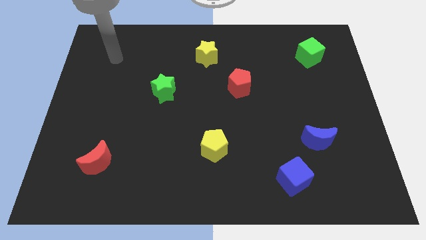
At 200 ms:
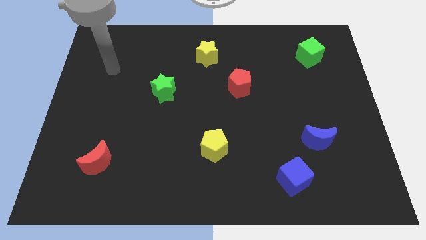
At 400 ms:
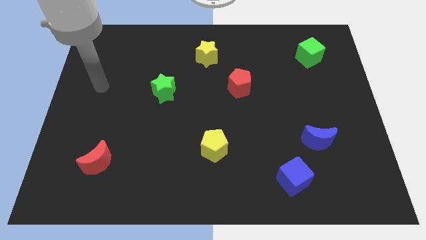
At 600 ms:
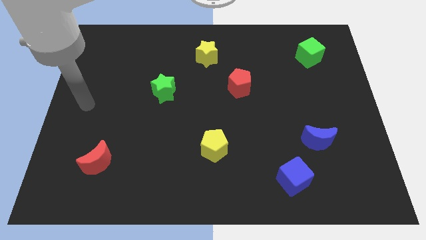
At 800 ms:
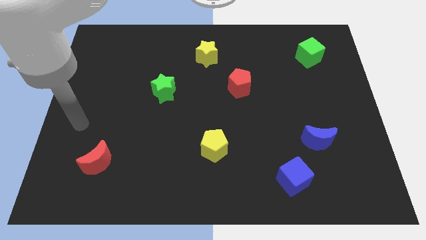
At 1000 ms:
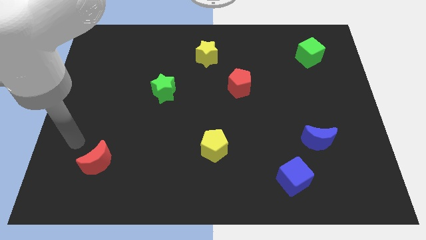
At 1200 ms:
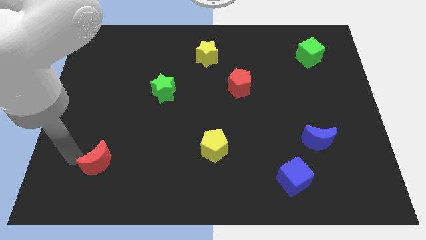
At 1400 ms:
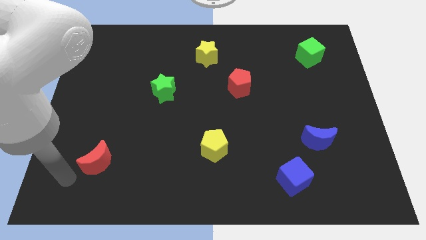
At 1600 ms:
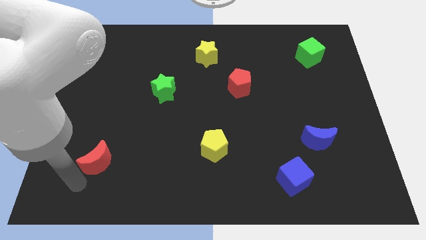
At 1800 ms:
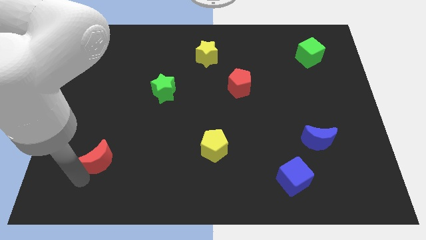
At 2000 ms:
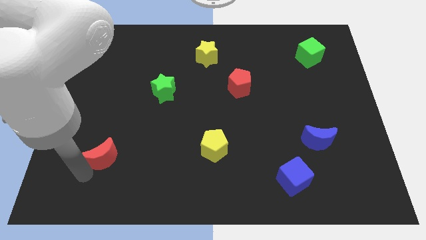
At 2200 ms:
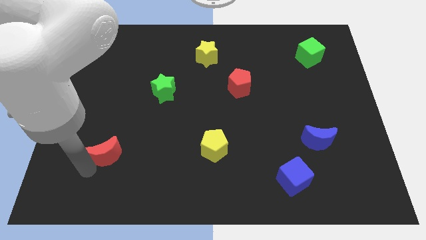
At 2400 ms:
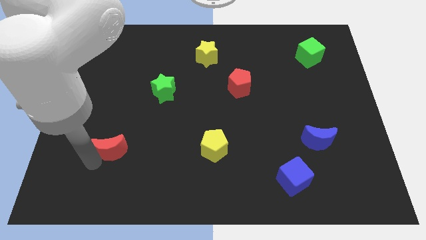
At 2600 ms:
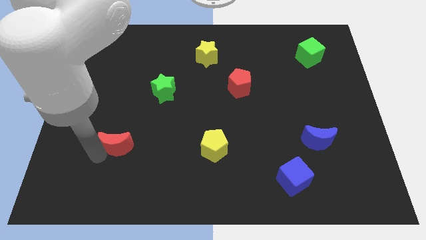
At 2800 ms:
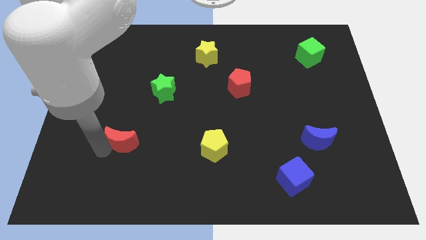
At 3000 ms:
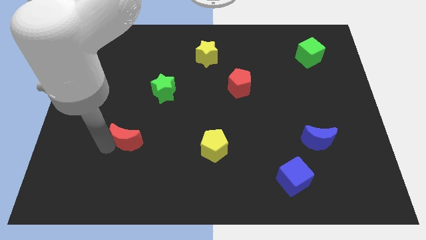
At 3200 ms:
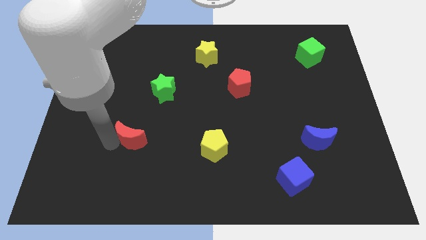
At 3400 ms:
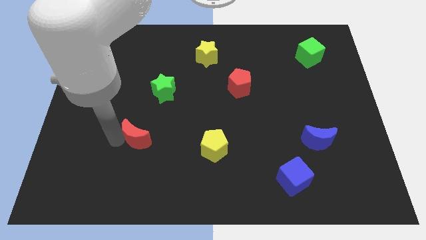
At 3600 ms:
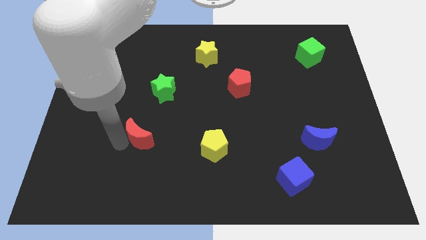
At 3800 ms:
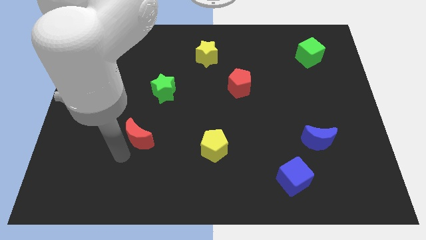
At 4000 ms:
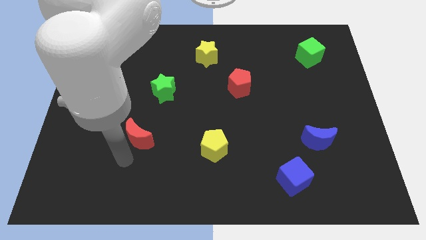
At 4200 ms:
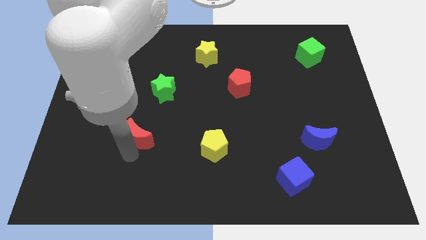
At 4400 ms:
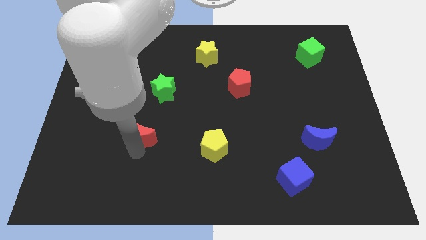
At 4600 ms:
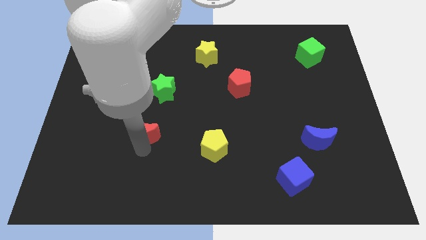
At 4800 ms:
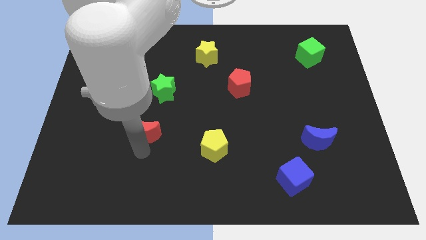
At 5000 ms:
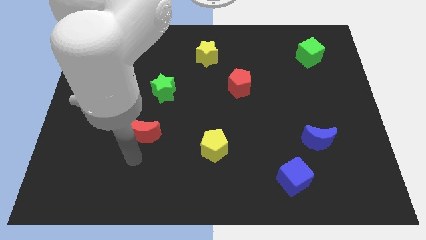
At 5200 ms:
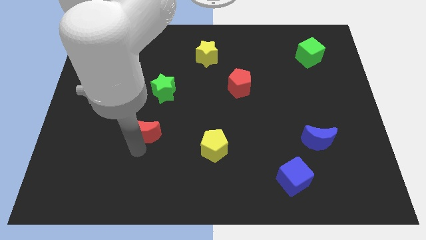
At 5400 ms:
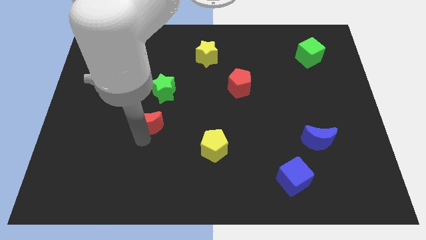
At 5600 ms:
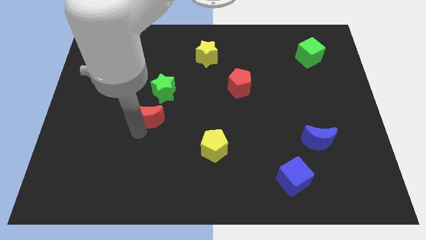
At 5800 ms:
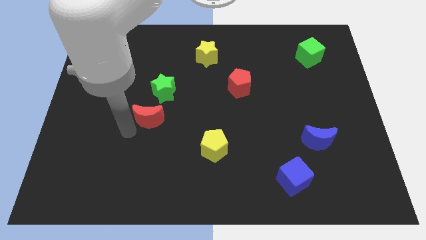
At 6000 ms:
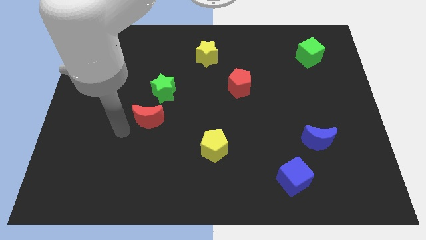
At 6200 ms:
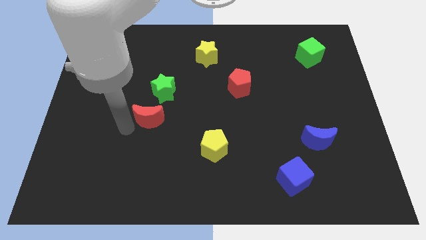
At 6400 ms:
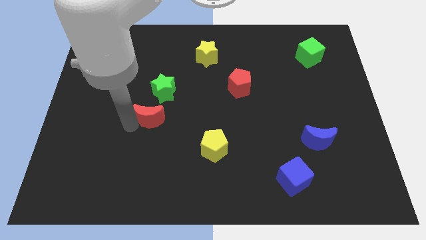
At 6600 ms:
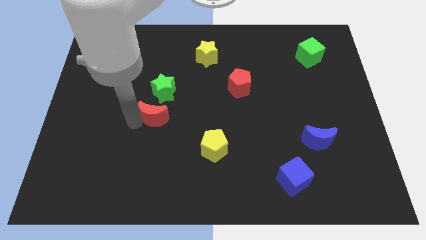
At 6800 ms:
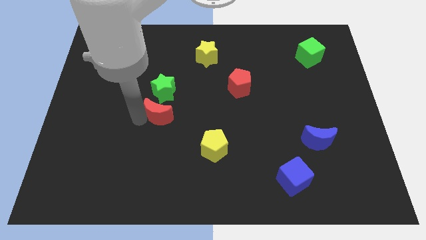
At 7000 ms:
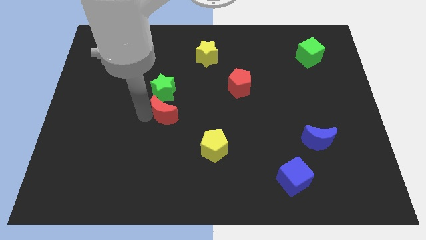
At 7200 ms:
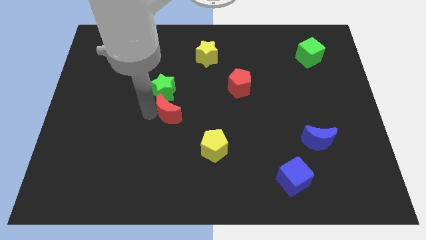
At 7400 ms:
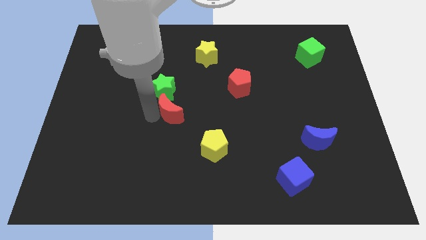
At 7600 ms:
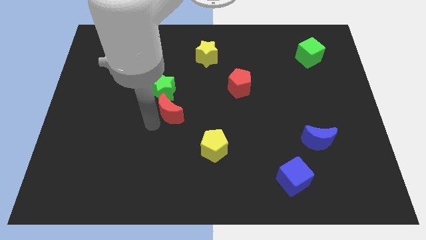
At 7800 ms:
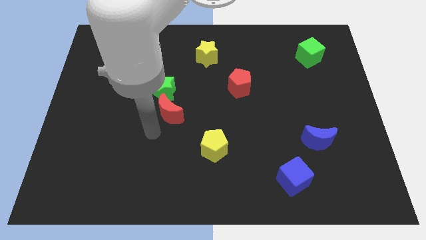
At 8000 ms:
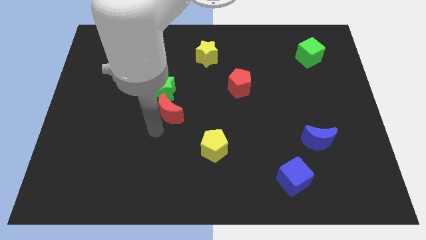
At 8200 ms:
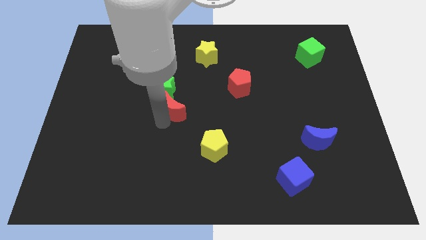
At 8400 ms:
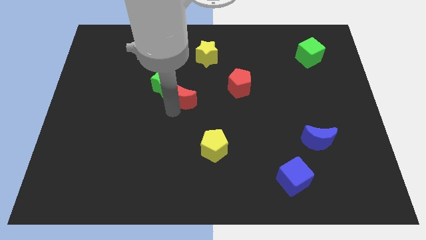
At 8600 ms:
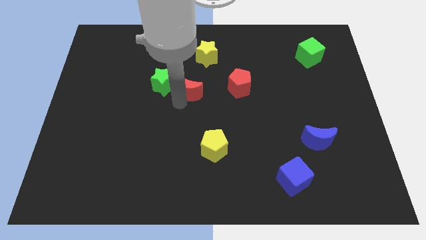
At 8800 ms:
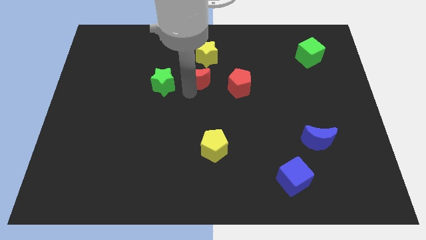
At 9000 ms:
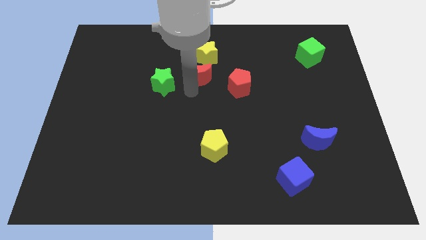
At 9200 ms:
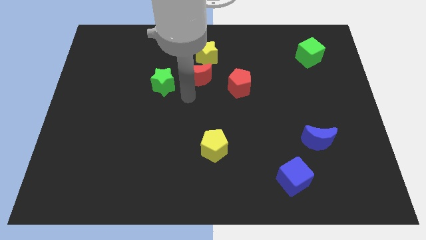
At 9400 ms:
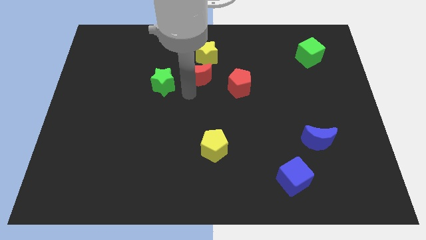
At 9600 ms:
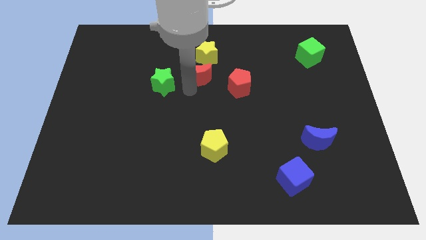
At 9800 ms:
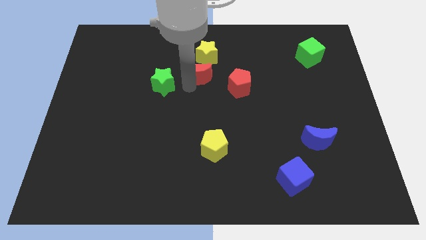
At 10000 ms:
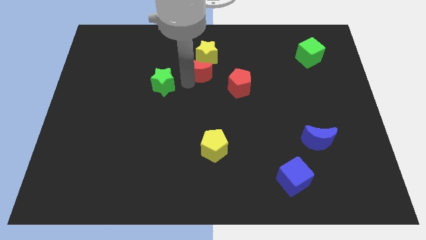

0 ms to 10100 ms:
push the red moon to the yellow star

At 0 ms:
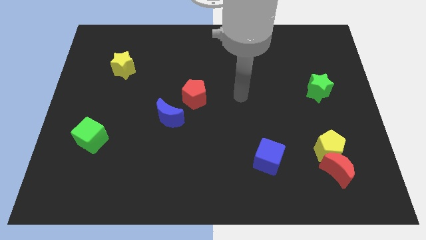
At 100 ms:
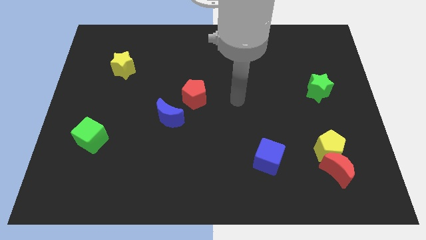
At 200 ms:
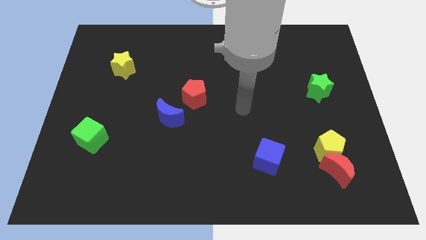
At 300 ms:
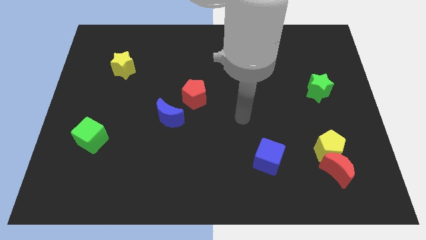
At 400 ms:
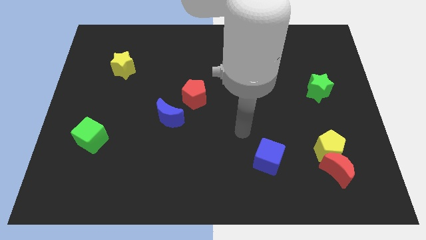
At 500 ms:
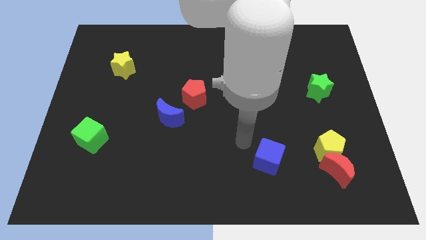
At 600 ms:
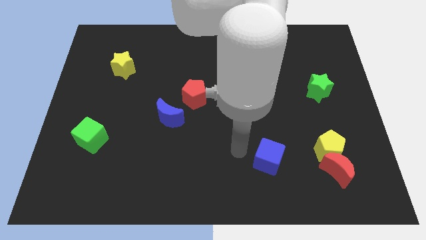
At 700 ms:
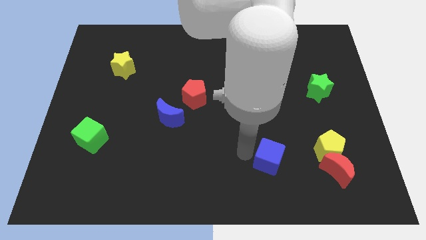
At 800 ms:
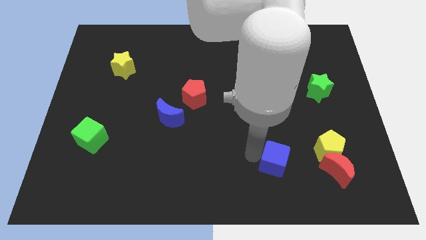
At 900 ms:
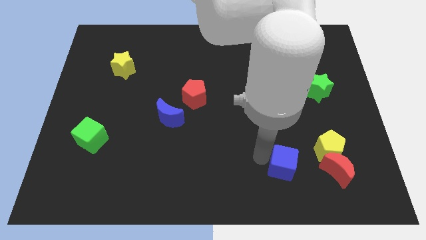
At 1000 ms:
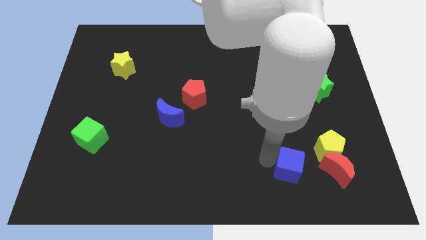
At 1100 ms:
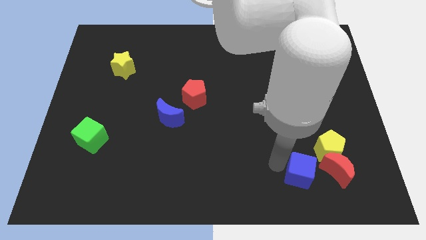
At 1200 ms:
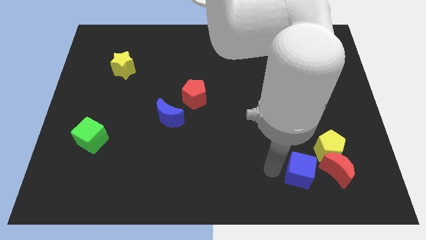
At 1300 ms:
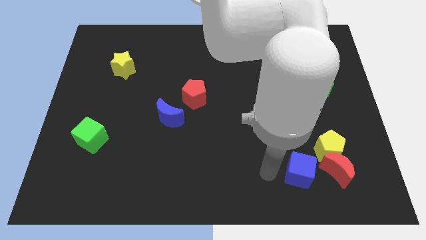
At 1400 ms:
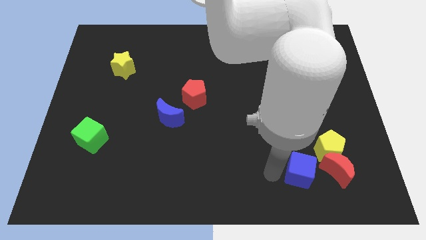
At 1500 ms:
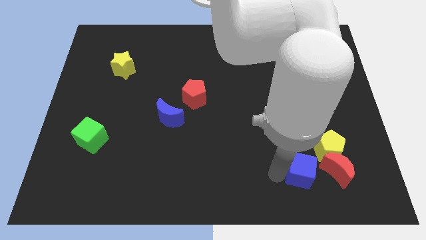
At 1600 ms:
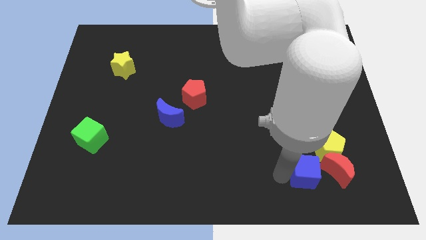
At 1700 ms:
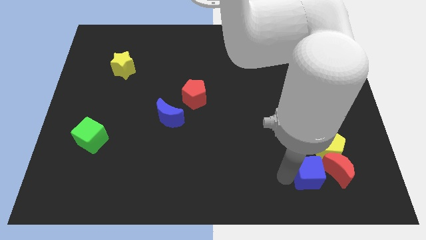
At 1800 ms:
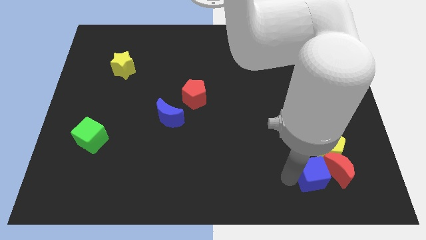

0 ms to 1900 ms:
slide the blue cube towards the red moon

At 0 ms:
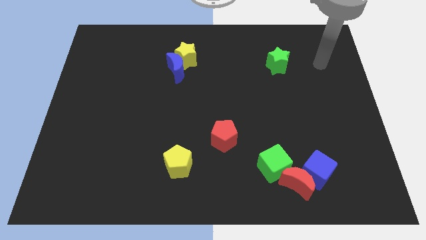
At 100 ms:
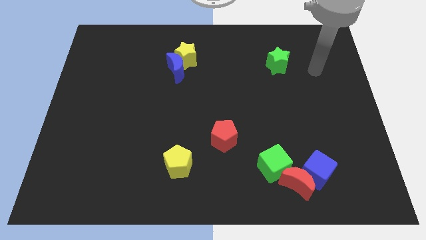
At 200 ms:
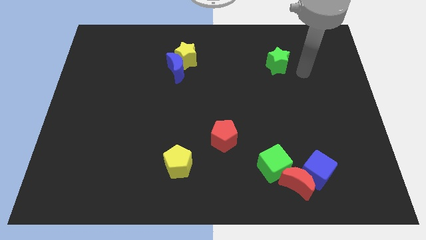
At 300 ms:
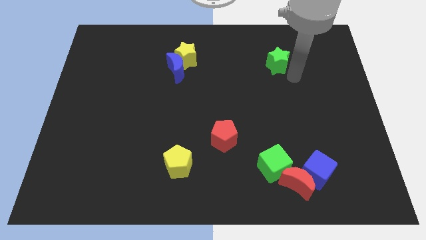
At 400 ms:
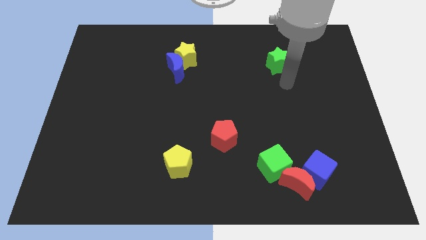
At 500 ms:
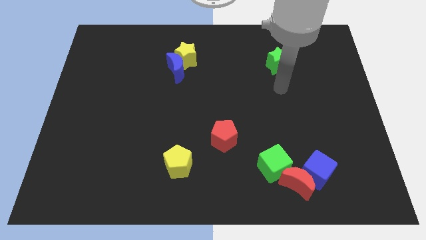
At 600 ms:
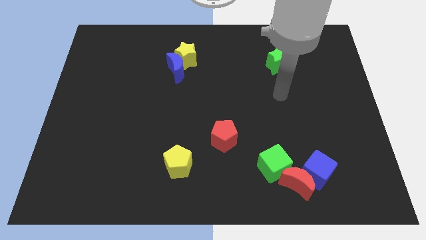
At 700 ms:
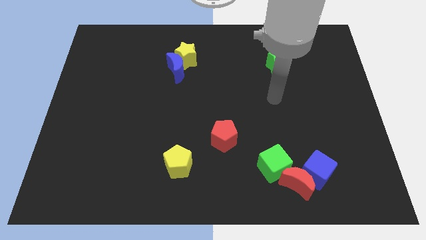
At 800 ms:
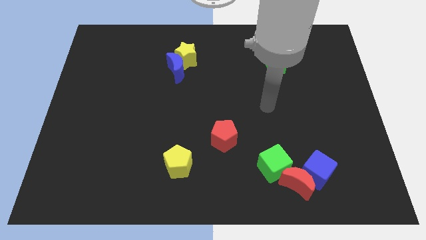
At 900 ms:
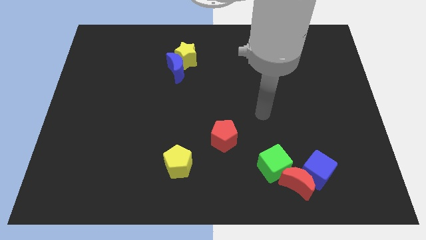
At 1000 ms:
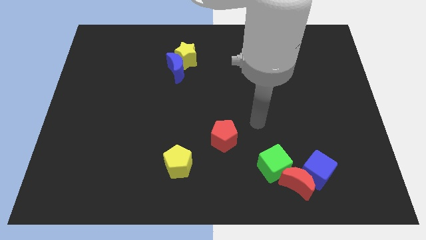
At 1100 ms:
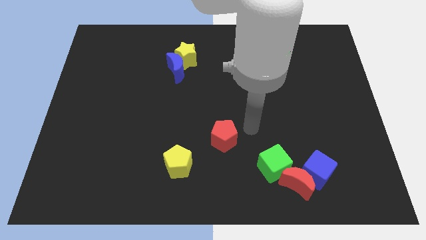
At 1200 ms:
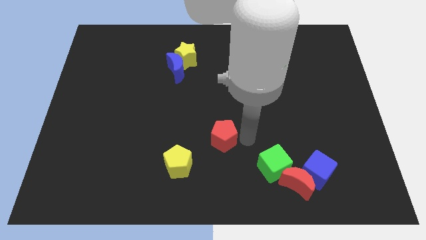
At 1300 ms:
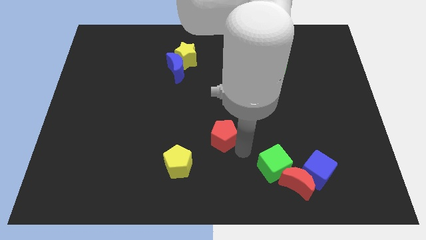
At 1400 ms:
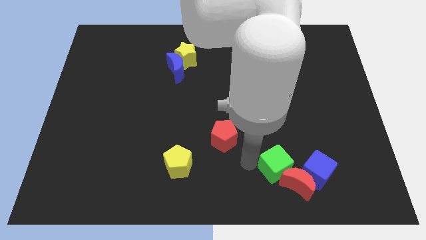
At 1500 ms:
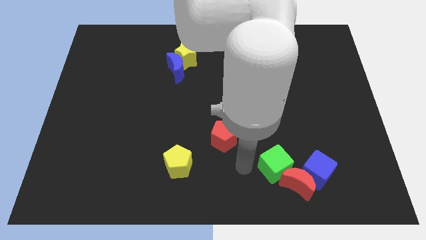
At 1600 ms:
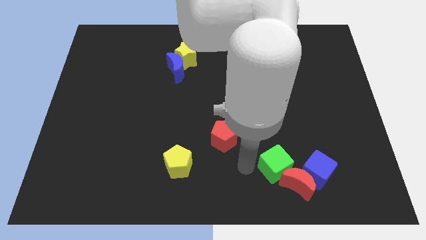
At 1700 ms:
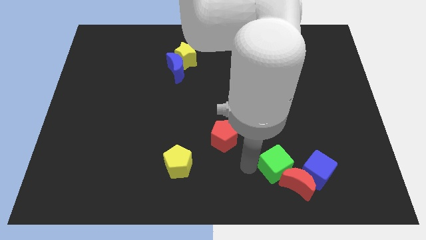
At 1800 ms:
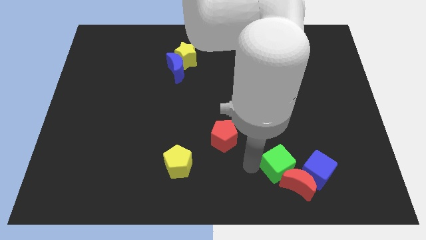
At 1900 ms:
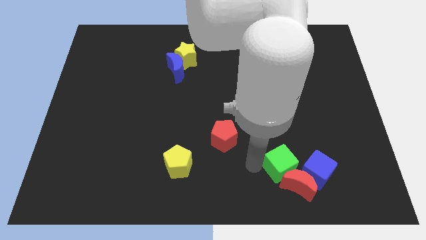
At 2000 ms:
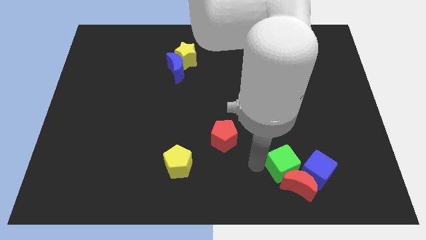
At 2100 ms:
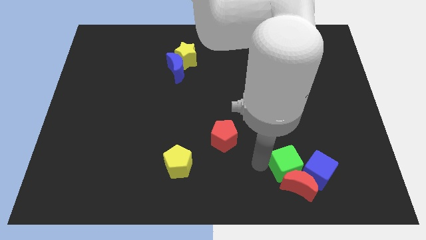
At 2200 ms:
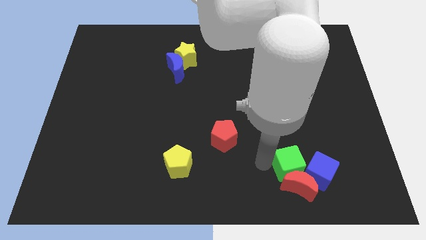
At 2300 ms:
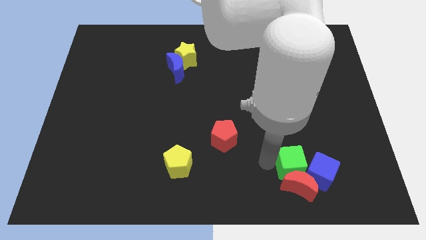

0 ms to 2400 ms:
put the green cube to the blue cube
